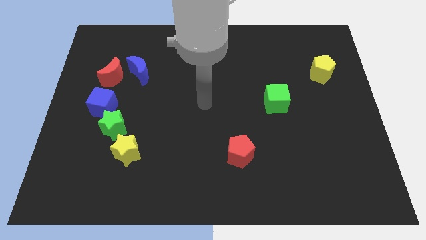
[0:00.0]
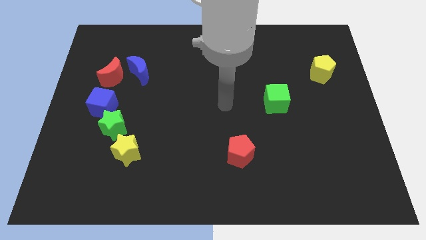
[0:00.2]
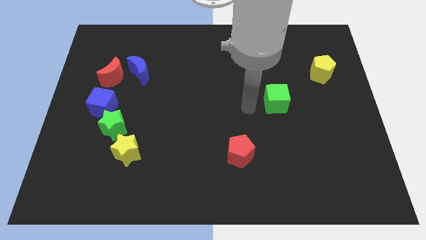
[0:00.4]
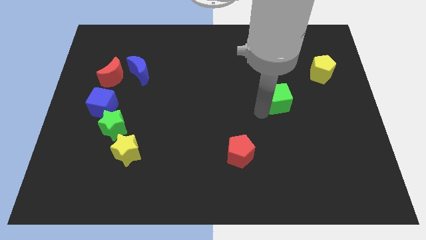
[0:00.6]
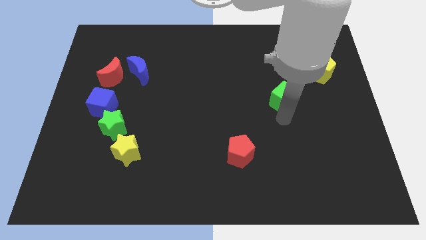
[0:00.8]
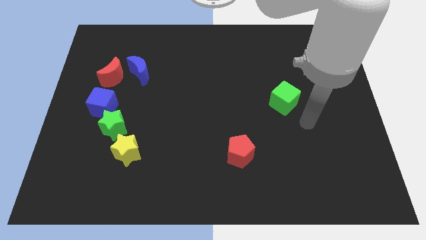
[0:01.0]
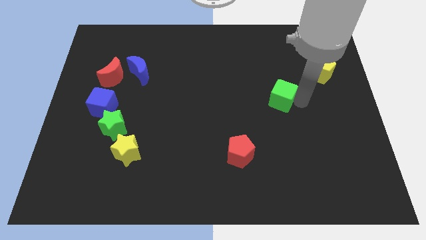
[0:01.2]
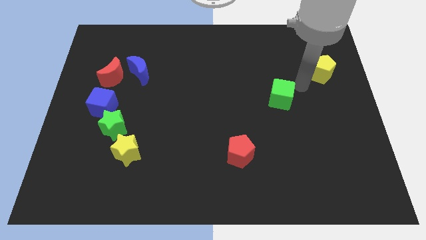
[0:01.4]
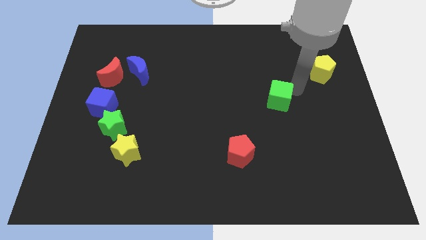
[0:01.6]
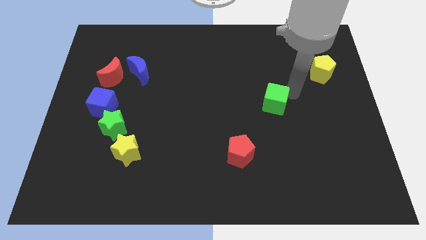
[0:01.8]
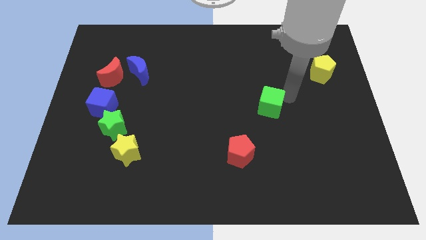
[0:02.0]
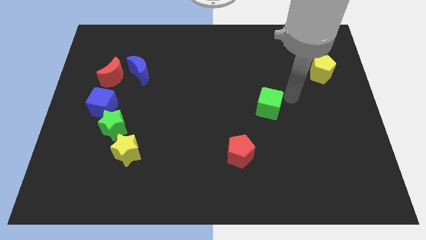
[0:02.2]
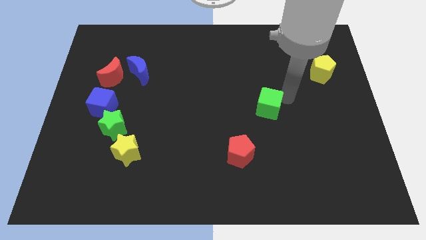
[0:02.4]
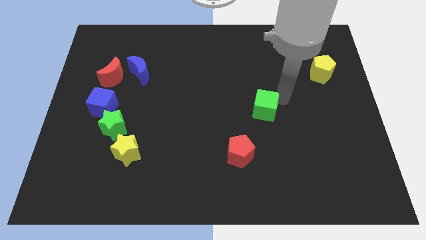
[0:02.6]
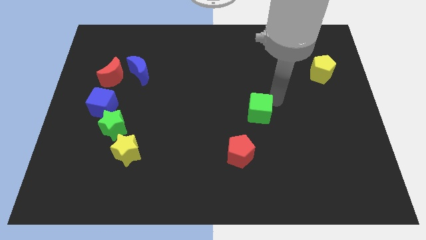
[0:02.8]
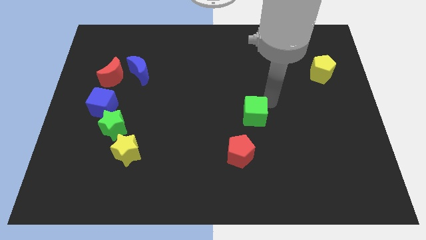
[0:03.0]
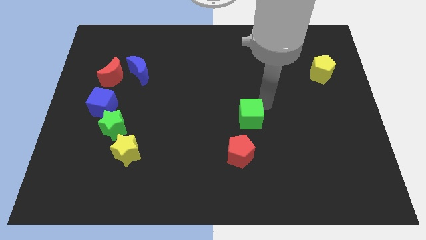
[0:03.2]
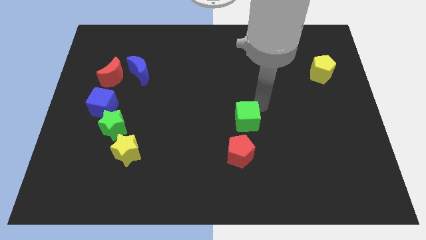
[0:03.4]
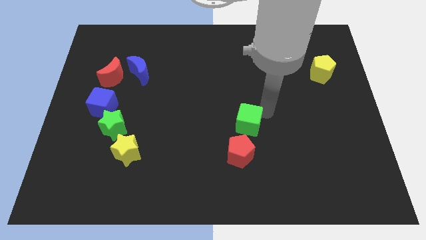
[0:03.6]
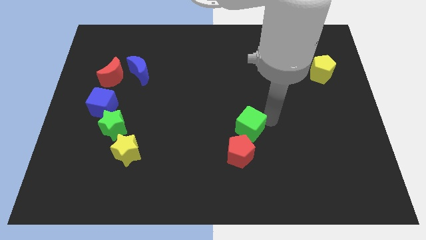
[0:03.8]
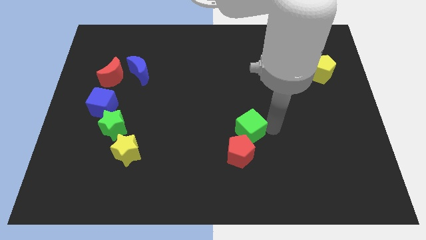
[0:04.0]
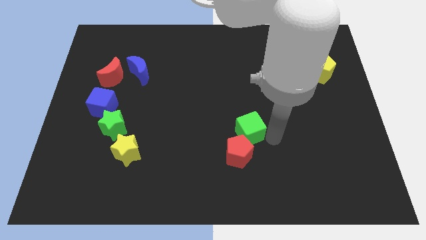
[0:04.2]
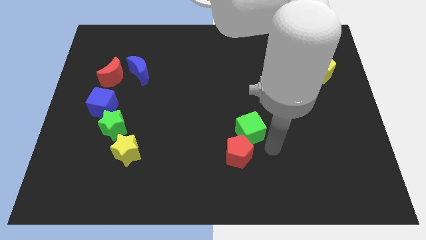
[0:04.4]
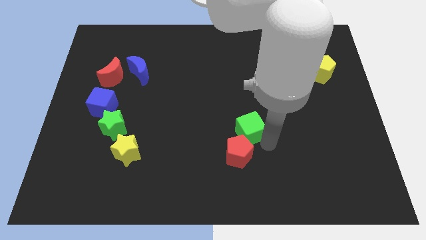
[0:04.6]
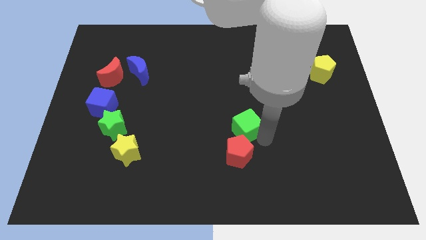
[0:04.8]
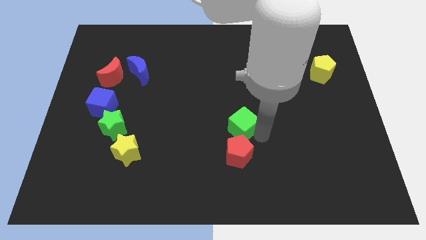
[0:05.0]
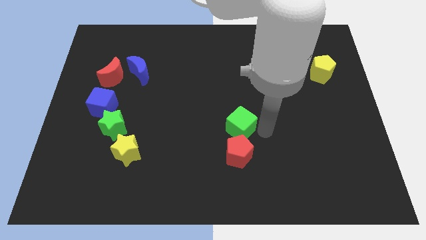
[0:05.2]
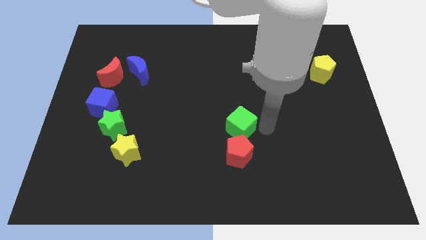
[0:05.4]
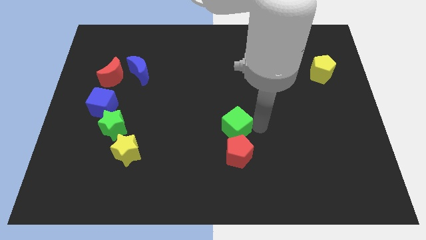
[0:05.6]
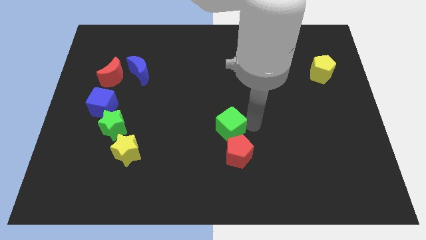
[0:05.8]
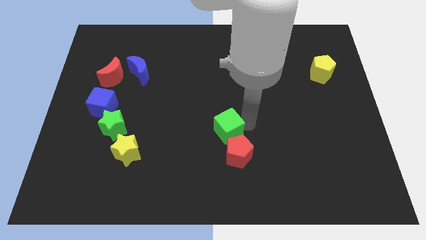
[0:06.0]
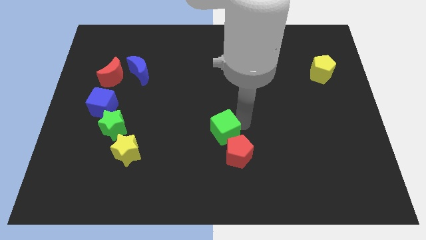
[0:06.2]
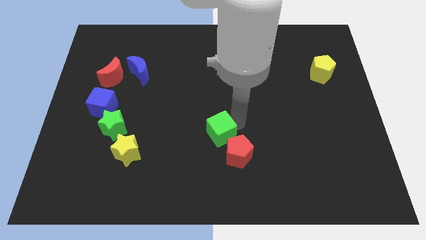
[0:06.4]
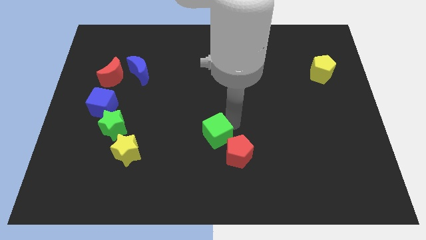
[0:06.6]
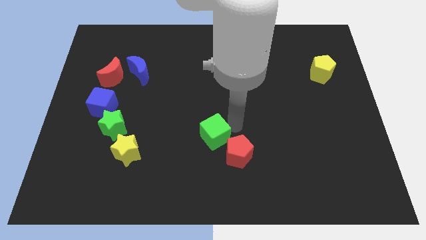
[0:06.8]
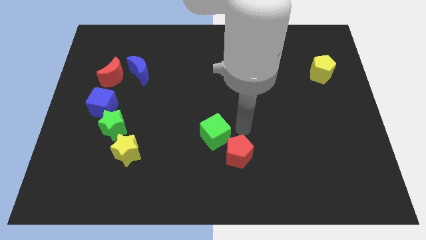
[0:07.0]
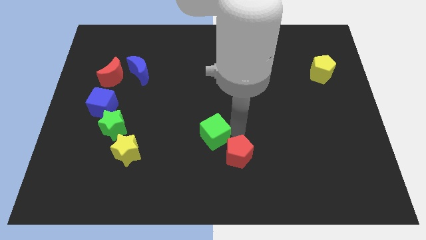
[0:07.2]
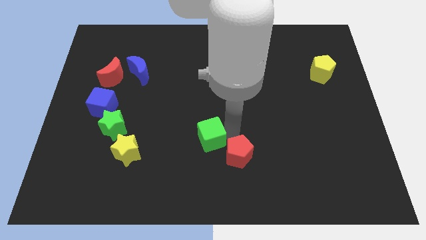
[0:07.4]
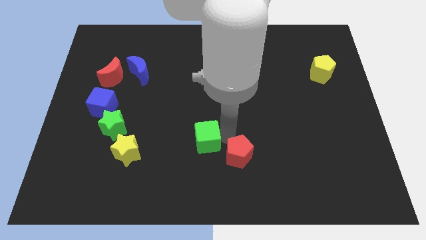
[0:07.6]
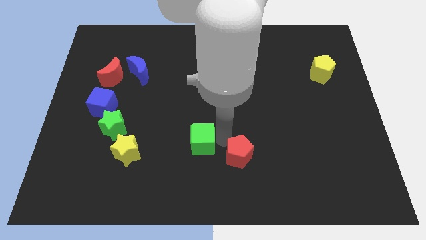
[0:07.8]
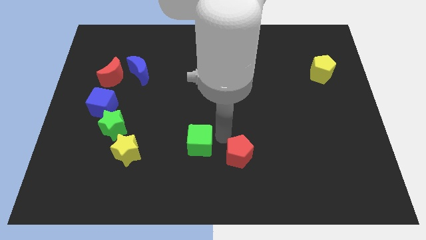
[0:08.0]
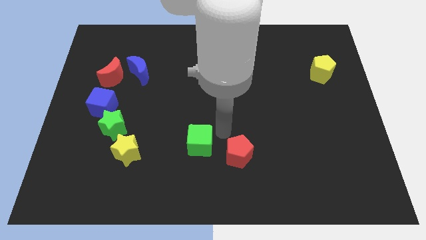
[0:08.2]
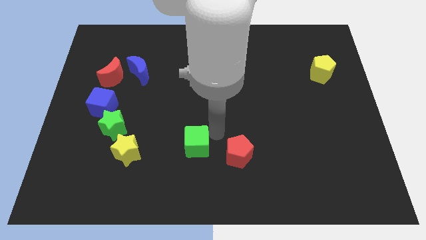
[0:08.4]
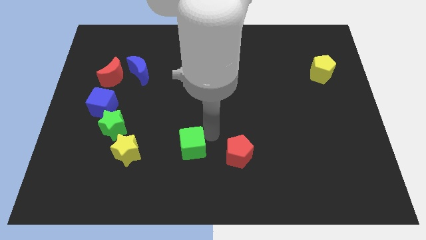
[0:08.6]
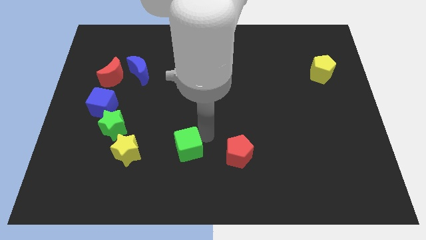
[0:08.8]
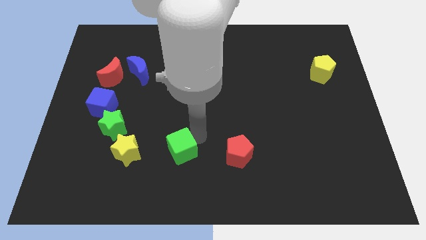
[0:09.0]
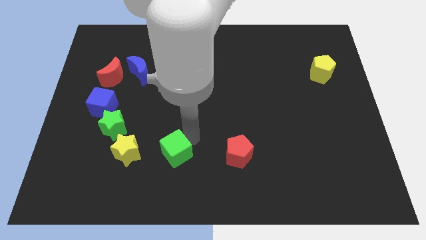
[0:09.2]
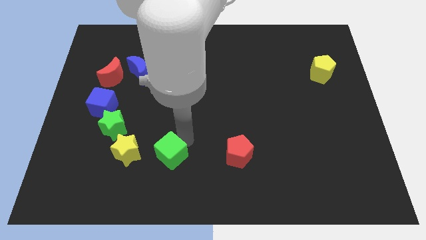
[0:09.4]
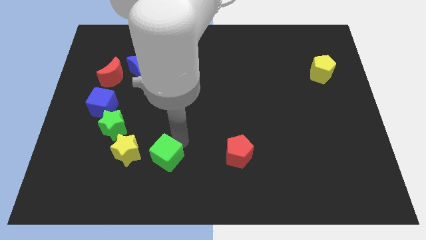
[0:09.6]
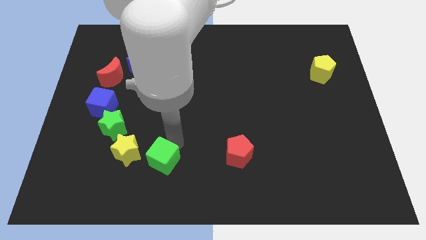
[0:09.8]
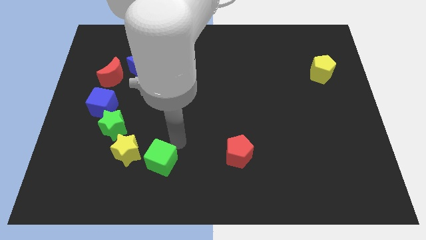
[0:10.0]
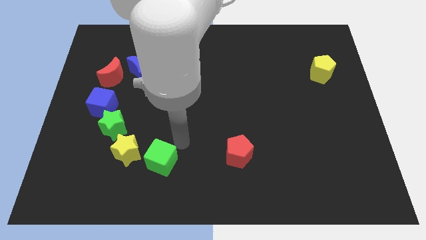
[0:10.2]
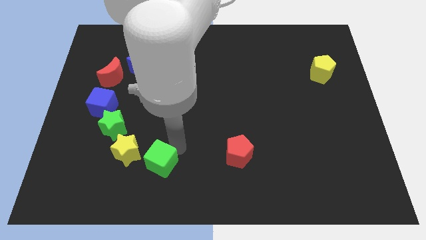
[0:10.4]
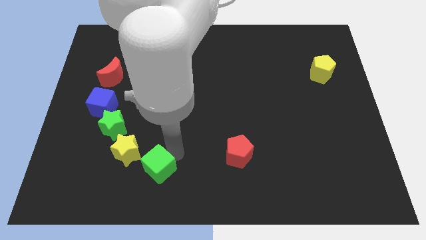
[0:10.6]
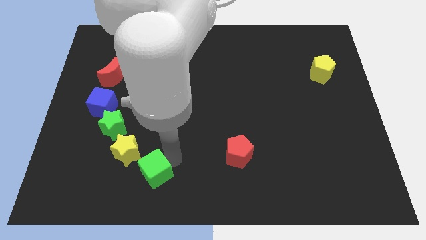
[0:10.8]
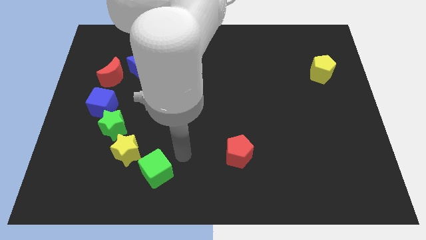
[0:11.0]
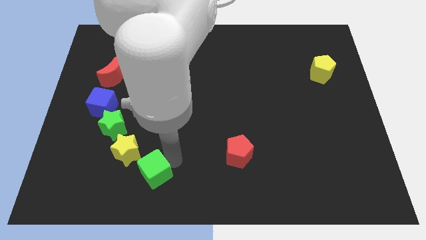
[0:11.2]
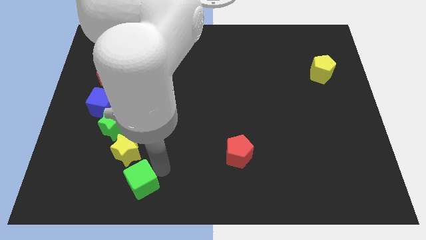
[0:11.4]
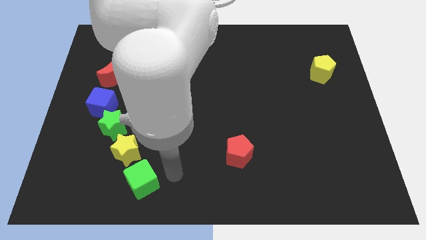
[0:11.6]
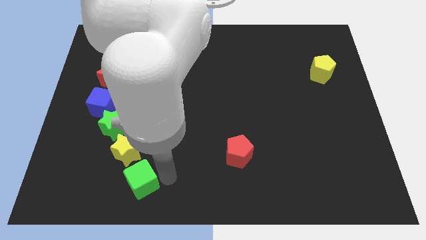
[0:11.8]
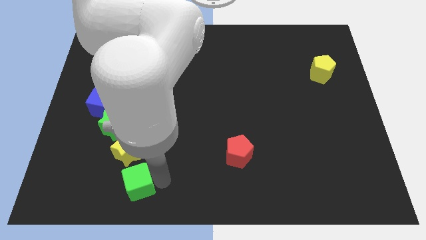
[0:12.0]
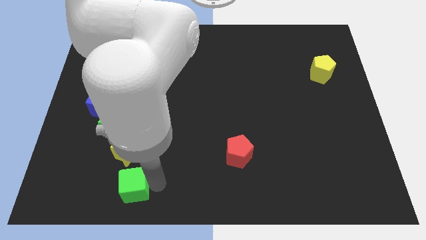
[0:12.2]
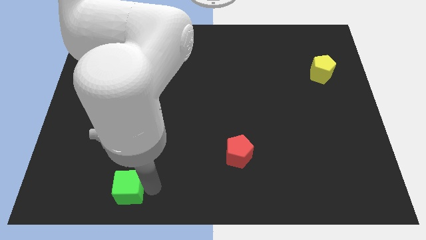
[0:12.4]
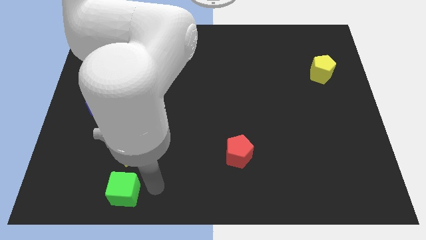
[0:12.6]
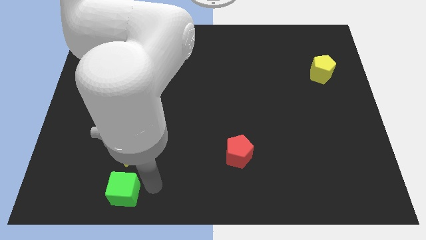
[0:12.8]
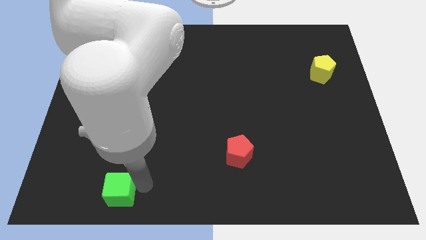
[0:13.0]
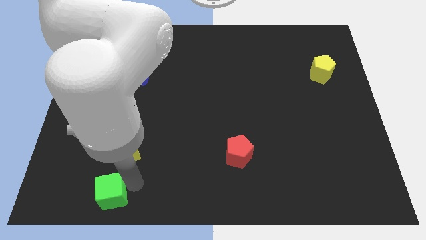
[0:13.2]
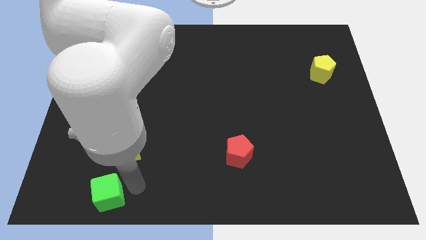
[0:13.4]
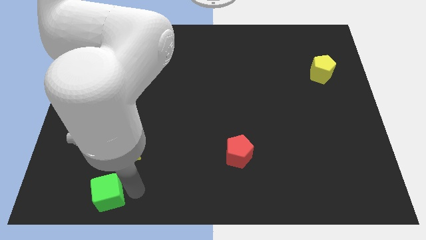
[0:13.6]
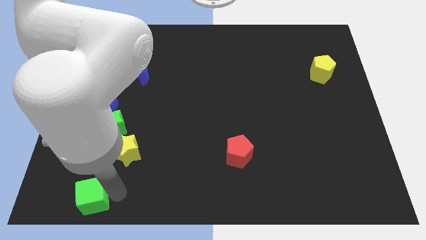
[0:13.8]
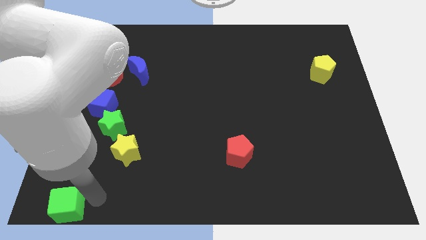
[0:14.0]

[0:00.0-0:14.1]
move the green cube to the bottom left

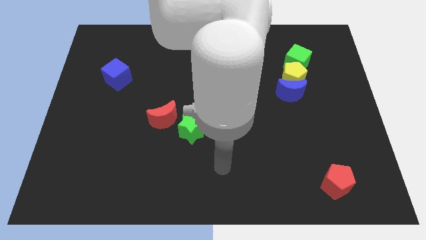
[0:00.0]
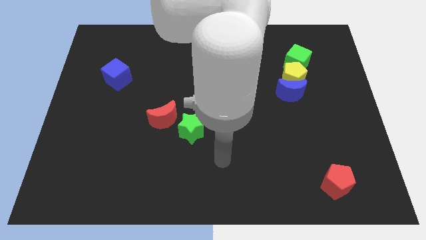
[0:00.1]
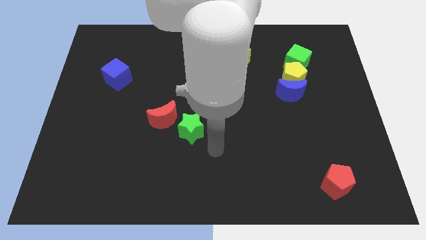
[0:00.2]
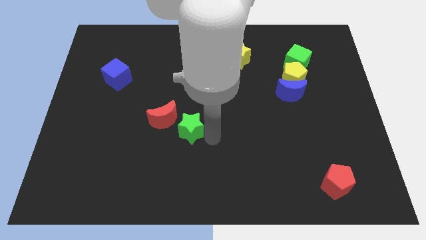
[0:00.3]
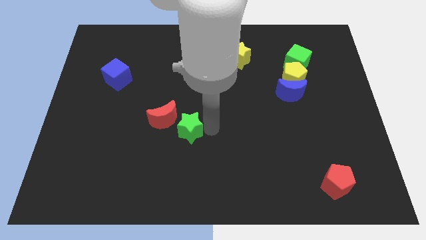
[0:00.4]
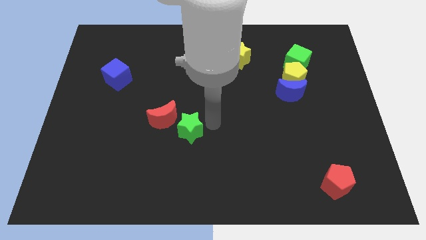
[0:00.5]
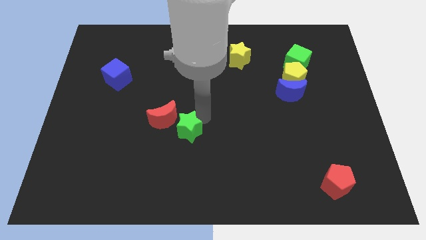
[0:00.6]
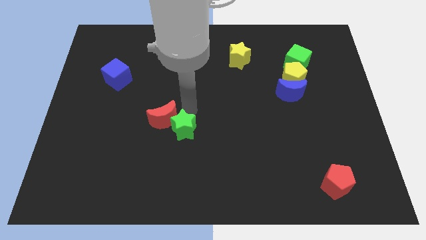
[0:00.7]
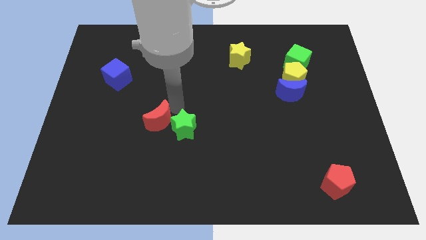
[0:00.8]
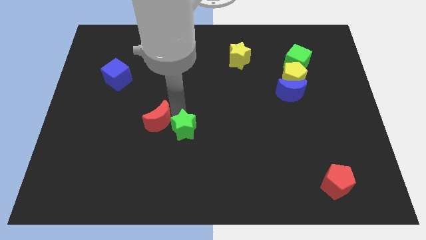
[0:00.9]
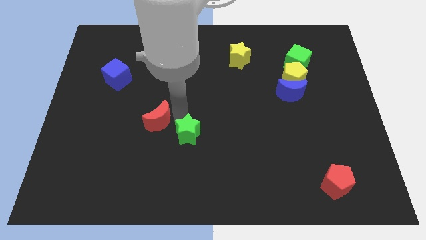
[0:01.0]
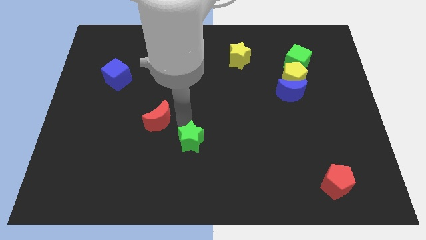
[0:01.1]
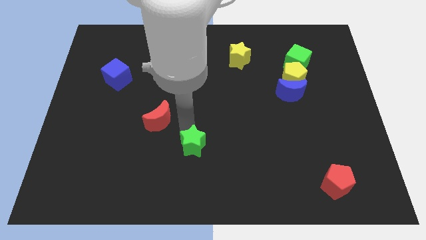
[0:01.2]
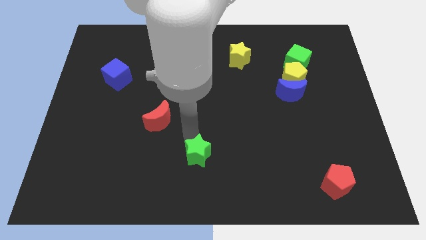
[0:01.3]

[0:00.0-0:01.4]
move the green star to the bottom side
